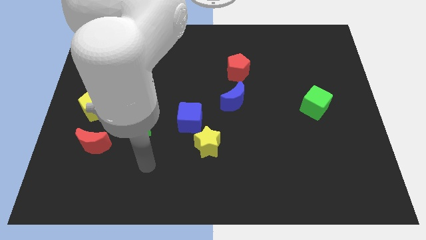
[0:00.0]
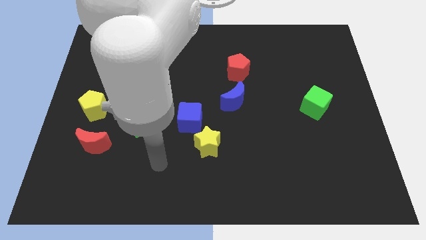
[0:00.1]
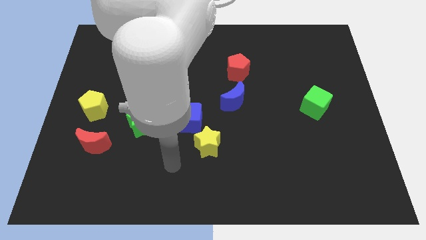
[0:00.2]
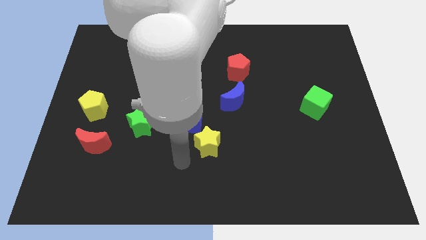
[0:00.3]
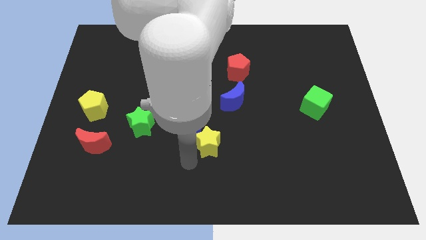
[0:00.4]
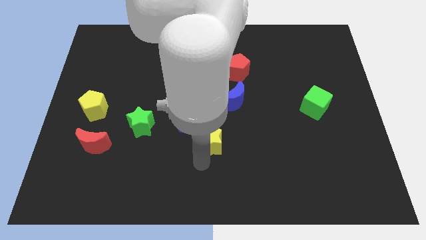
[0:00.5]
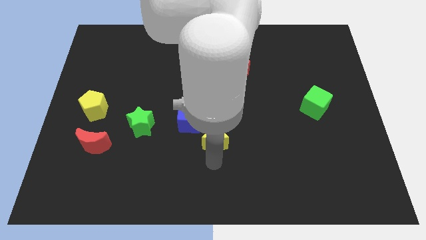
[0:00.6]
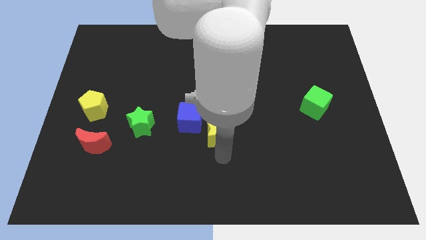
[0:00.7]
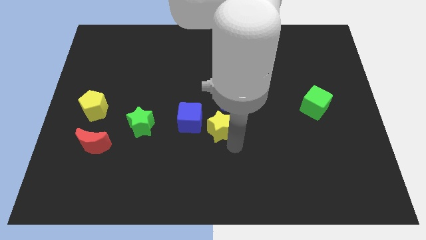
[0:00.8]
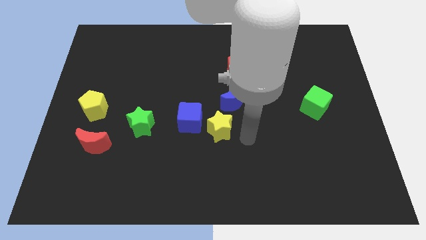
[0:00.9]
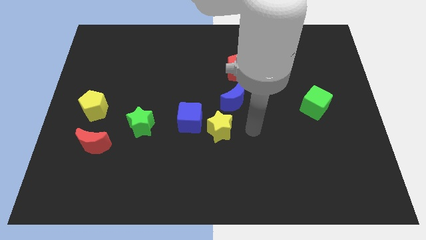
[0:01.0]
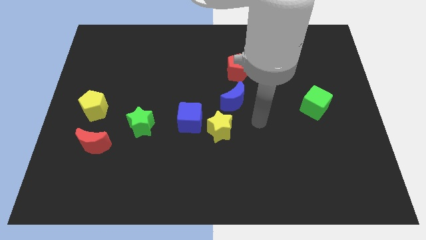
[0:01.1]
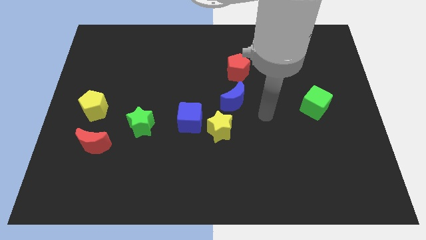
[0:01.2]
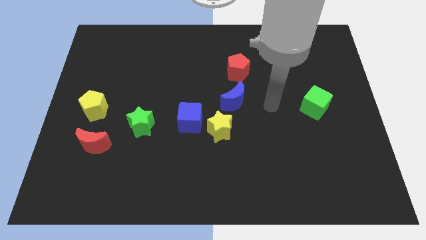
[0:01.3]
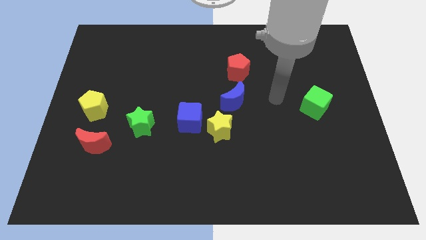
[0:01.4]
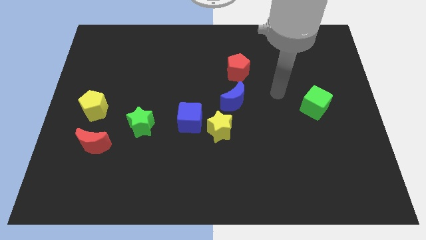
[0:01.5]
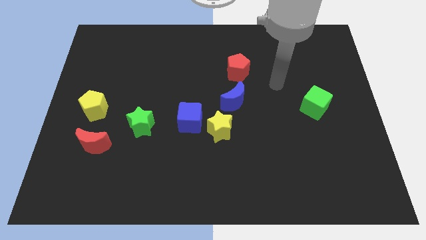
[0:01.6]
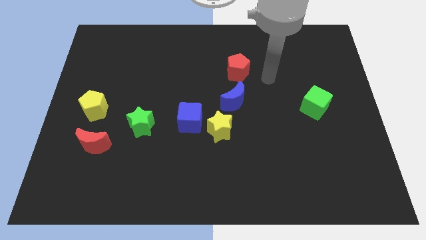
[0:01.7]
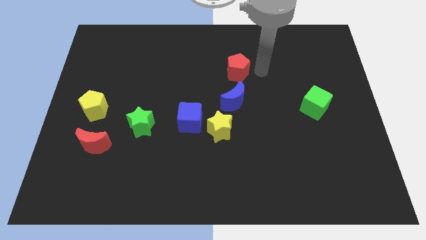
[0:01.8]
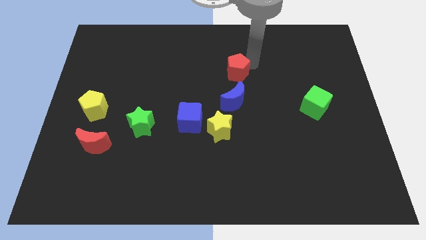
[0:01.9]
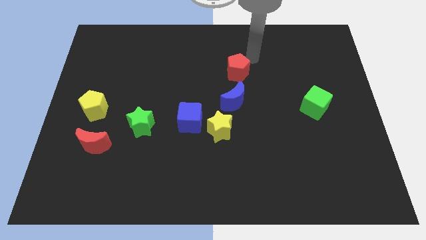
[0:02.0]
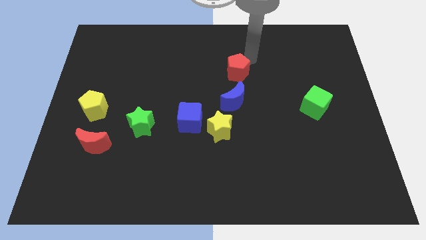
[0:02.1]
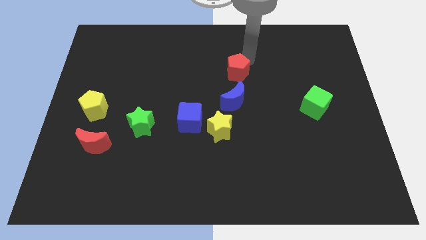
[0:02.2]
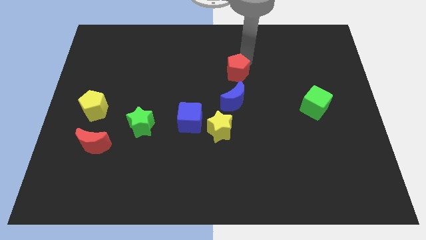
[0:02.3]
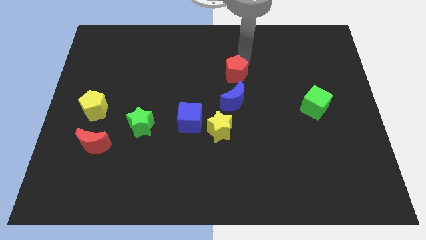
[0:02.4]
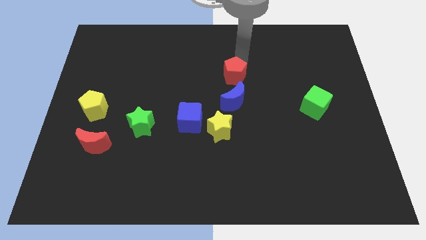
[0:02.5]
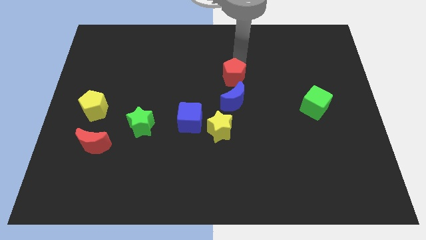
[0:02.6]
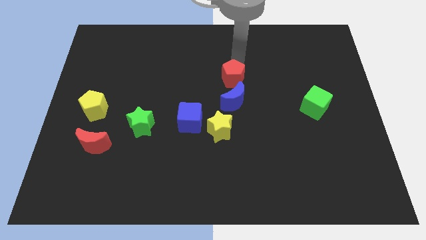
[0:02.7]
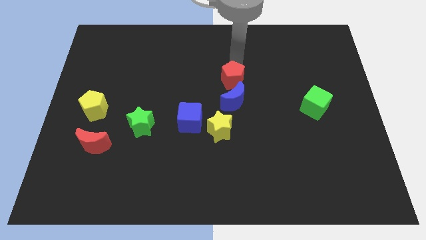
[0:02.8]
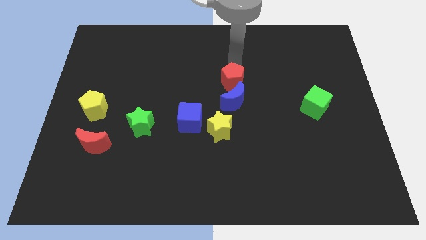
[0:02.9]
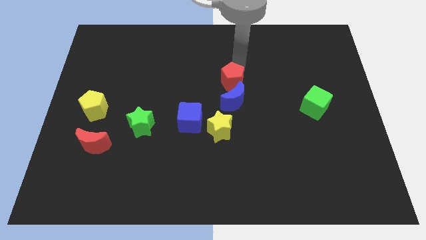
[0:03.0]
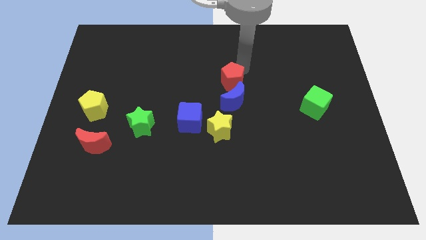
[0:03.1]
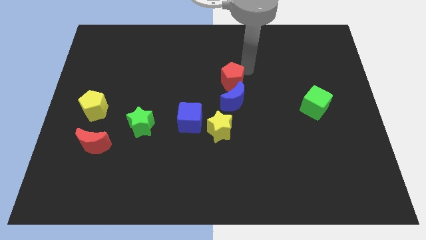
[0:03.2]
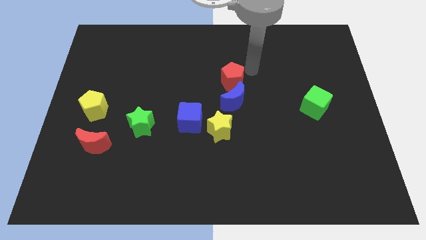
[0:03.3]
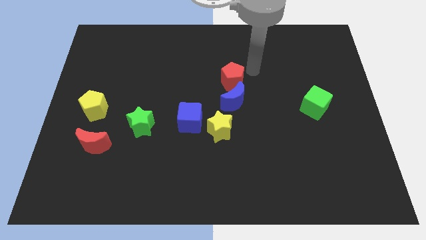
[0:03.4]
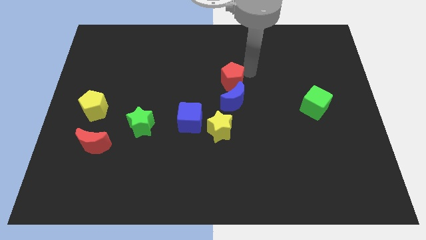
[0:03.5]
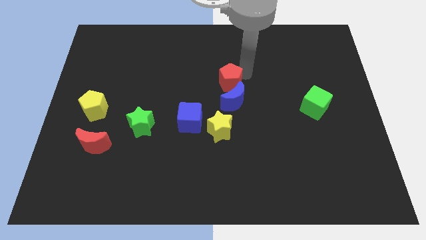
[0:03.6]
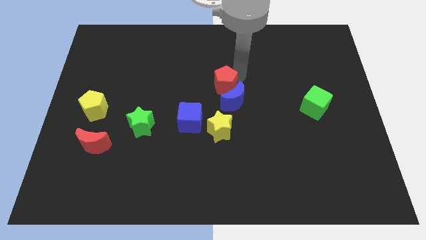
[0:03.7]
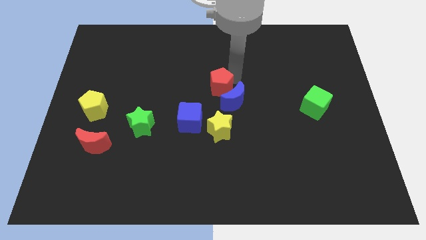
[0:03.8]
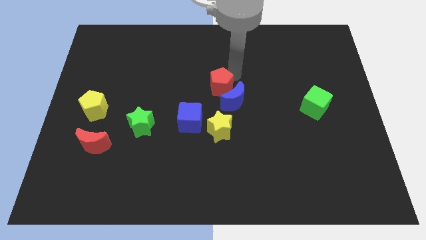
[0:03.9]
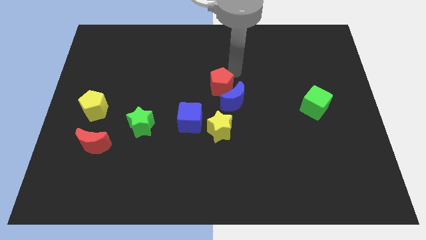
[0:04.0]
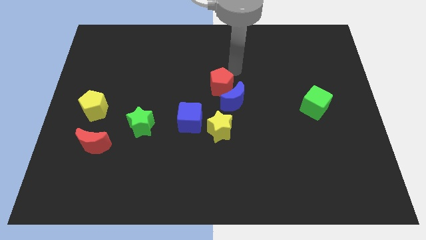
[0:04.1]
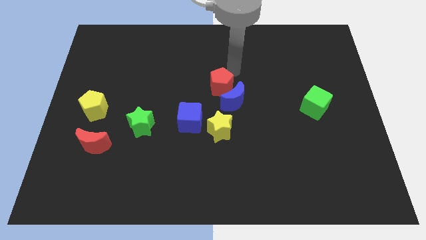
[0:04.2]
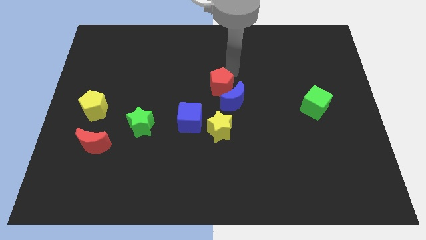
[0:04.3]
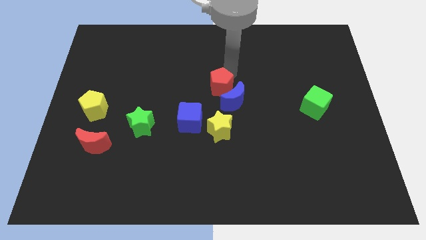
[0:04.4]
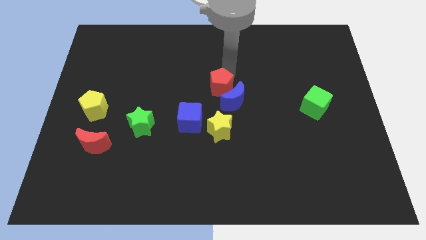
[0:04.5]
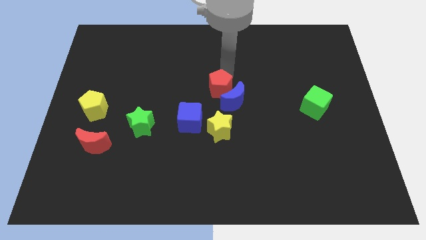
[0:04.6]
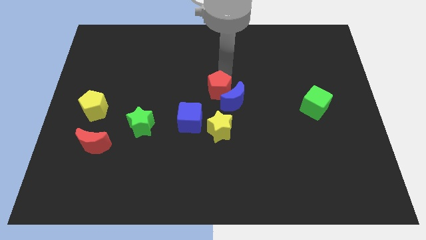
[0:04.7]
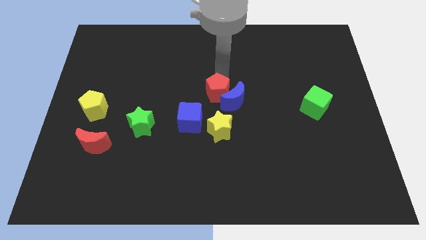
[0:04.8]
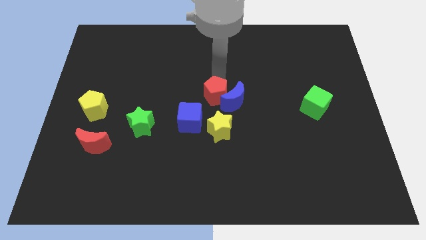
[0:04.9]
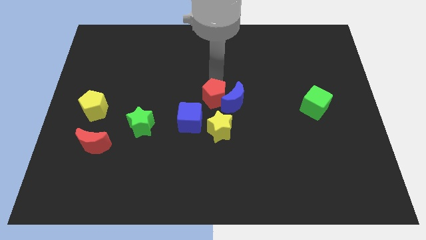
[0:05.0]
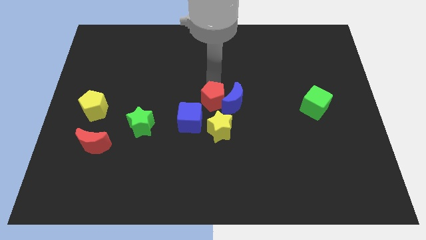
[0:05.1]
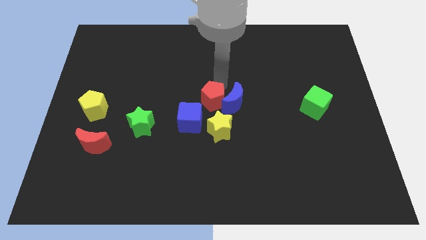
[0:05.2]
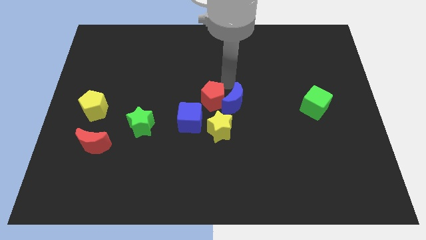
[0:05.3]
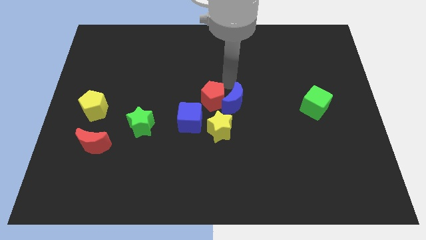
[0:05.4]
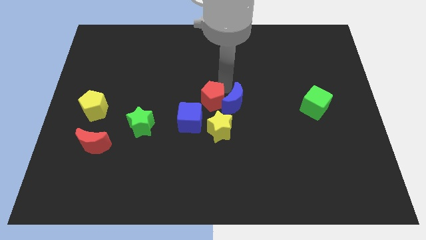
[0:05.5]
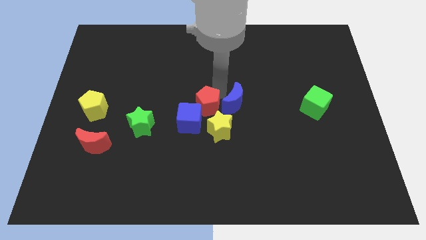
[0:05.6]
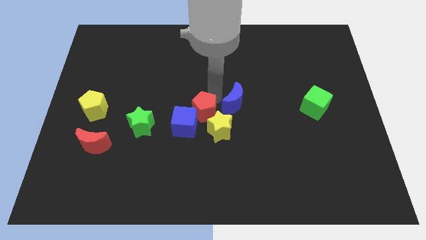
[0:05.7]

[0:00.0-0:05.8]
push the red pentagon towards the blue cube

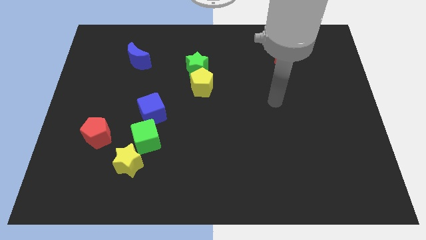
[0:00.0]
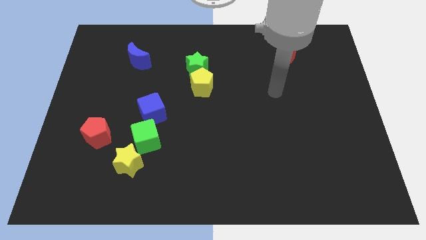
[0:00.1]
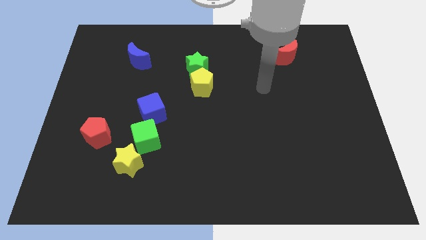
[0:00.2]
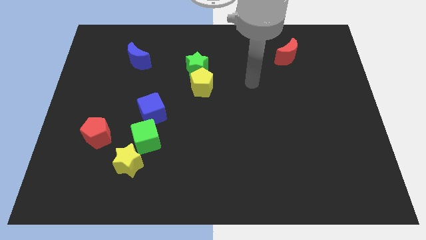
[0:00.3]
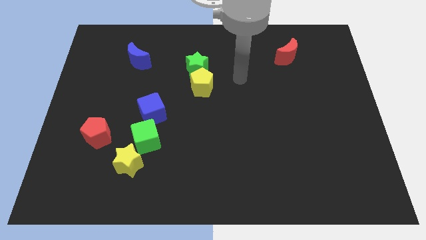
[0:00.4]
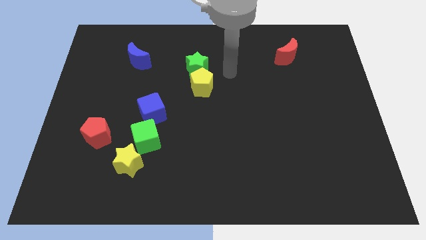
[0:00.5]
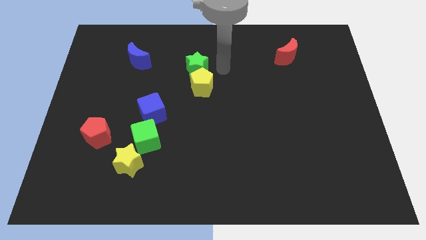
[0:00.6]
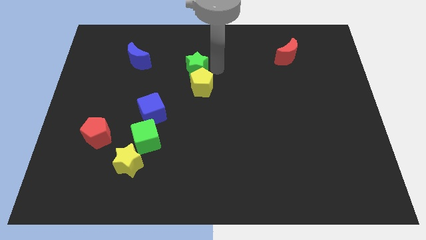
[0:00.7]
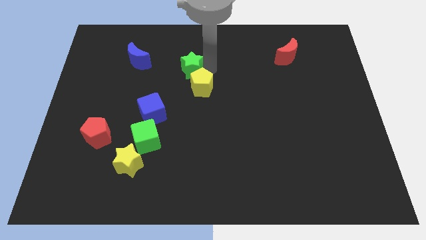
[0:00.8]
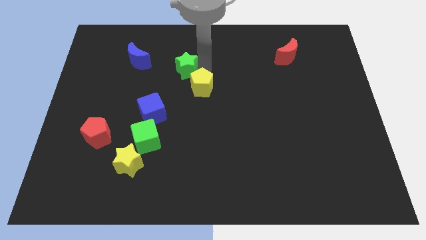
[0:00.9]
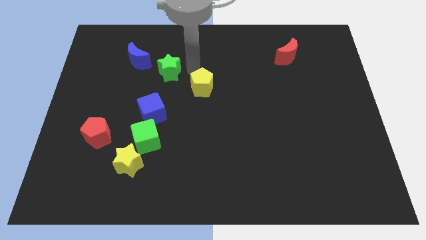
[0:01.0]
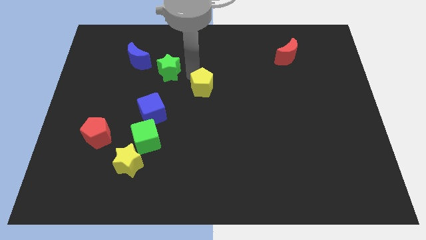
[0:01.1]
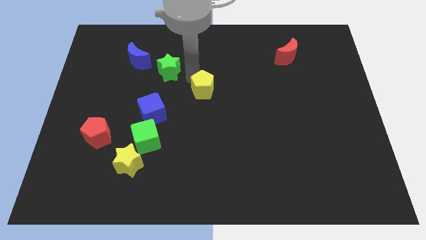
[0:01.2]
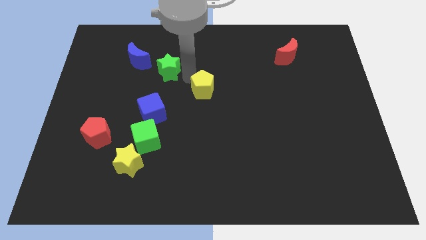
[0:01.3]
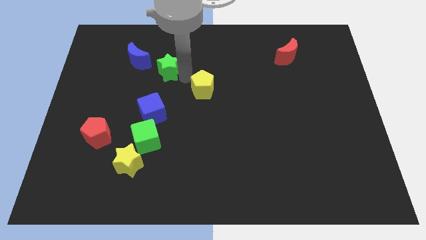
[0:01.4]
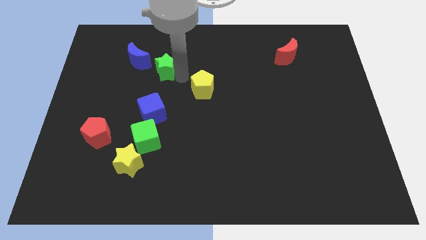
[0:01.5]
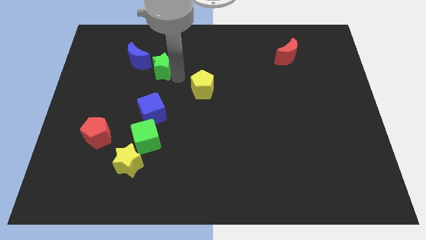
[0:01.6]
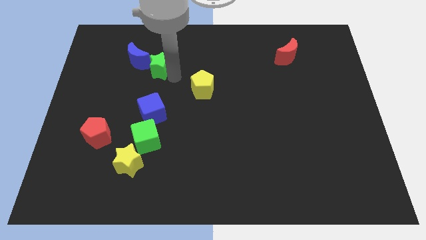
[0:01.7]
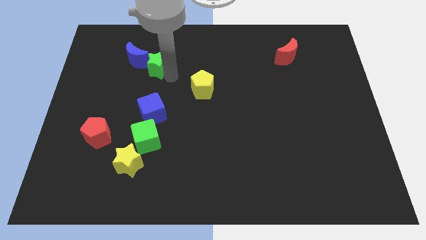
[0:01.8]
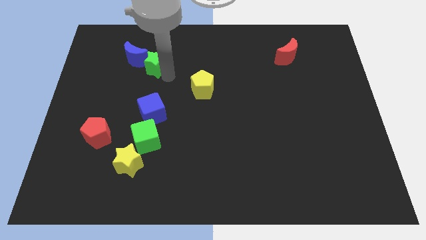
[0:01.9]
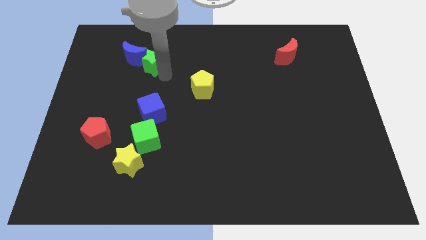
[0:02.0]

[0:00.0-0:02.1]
slide the green star to the blue moon
